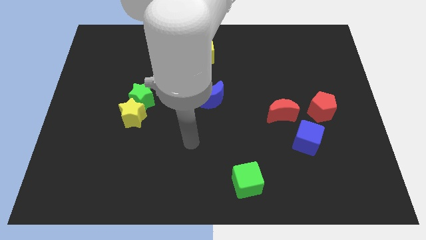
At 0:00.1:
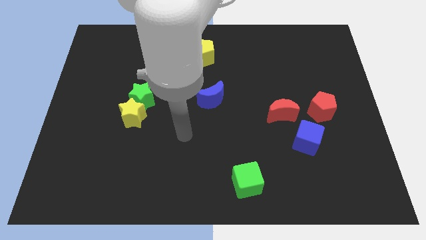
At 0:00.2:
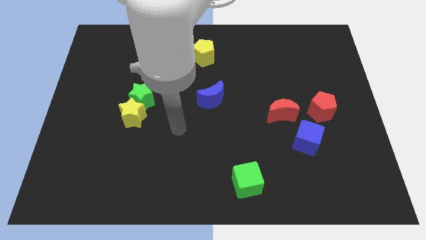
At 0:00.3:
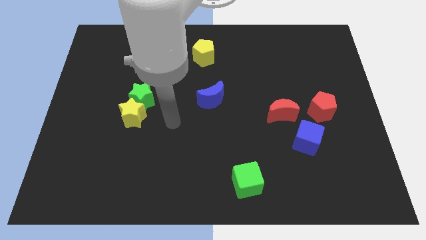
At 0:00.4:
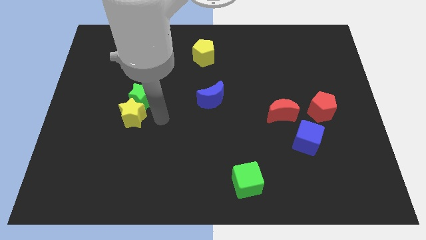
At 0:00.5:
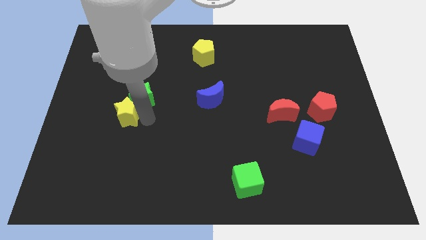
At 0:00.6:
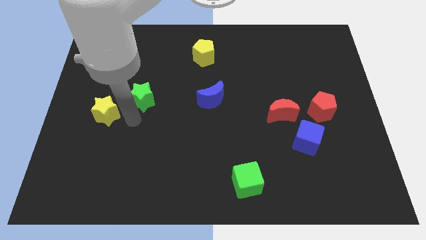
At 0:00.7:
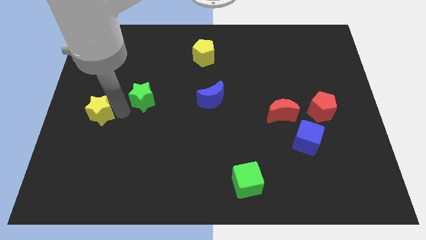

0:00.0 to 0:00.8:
separate the green star from the yellow star

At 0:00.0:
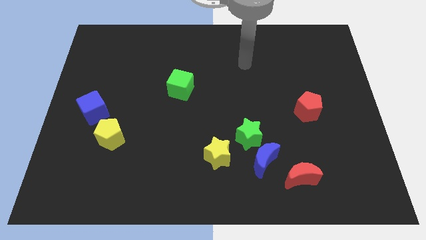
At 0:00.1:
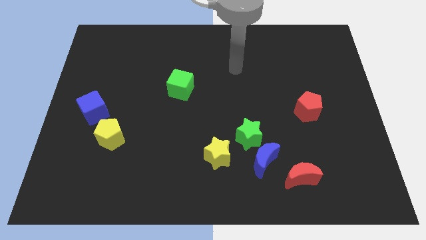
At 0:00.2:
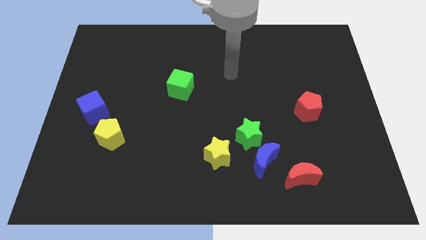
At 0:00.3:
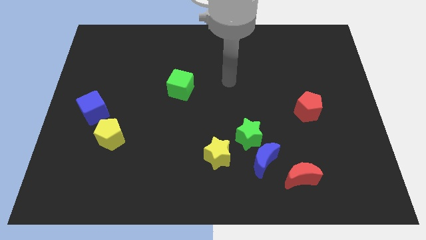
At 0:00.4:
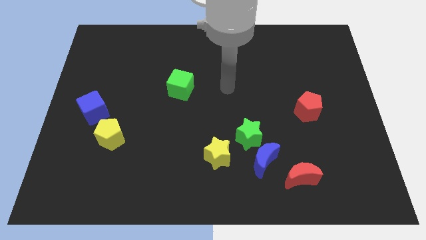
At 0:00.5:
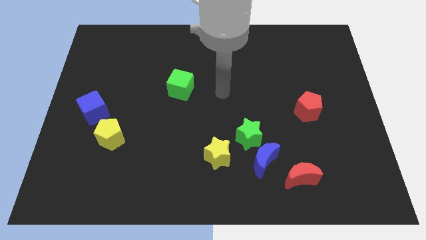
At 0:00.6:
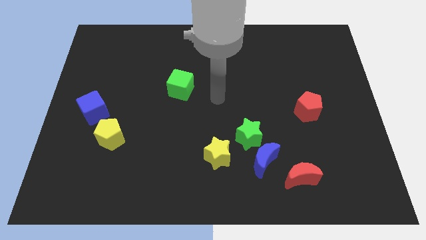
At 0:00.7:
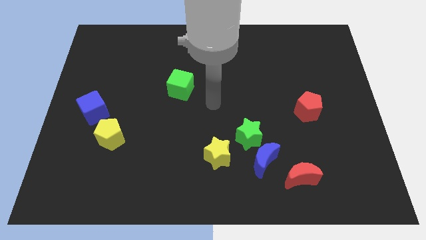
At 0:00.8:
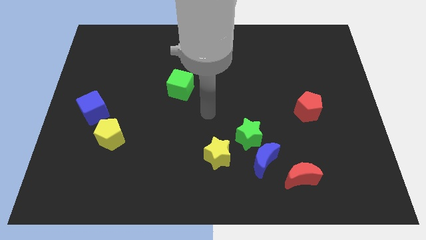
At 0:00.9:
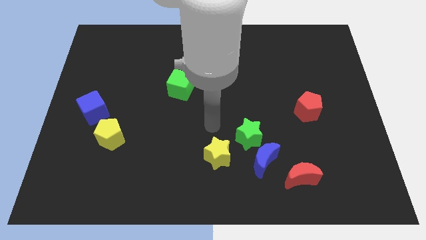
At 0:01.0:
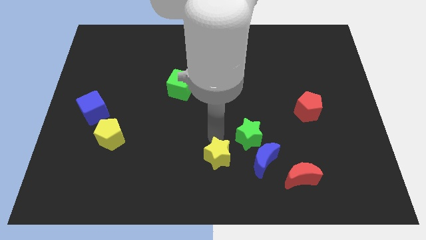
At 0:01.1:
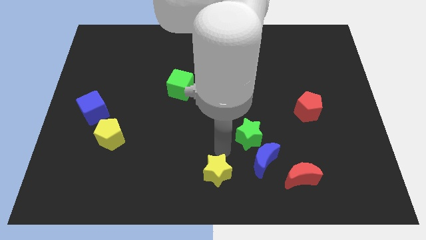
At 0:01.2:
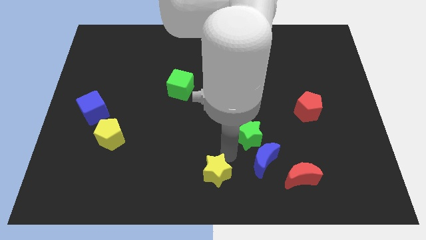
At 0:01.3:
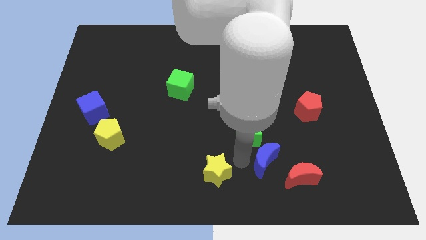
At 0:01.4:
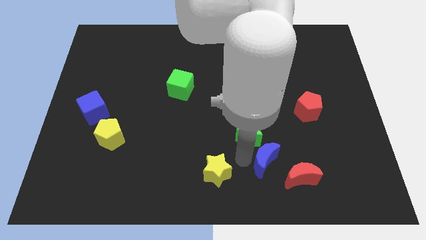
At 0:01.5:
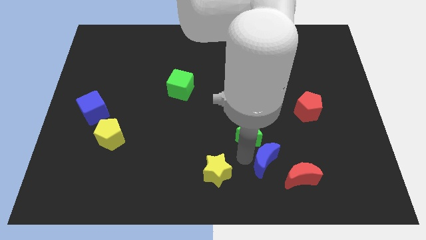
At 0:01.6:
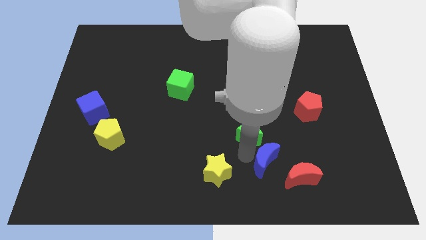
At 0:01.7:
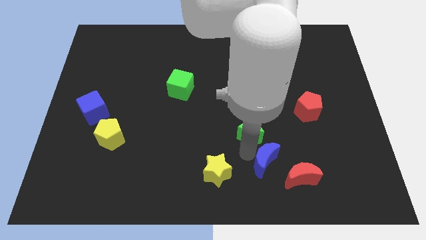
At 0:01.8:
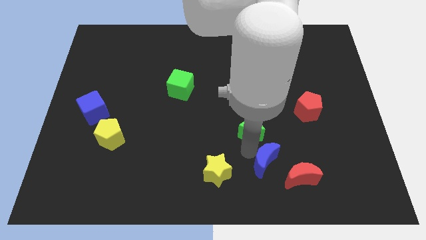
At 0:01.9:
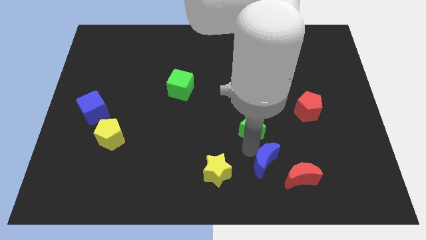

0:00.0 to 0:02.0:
move the green star away from the blue moon and yellow star

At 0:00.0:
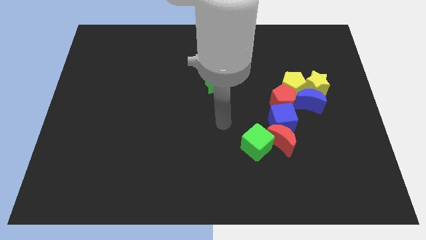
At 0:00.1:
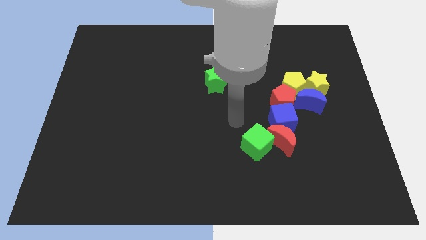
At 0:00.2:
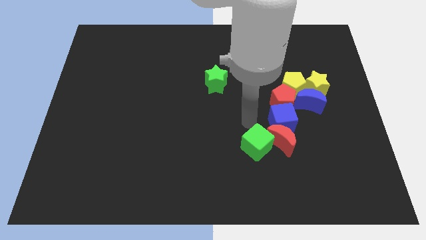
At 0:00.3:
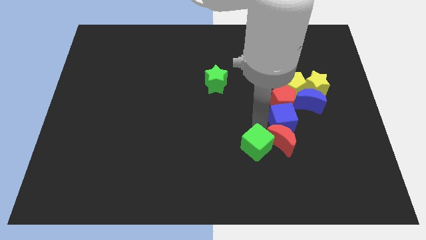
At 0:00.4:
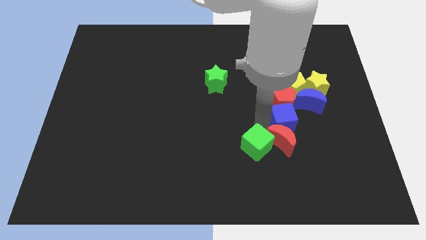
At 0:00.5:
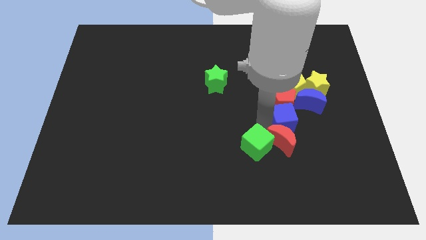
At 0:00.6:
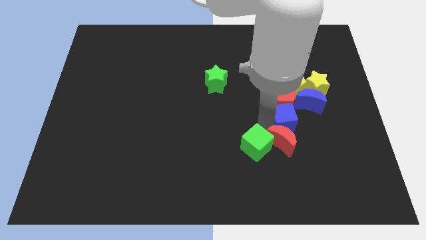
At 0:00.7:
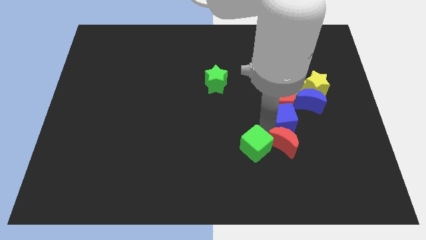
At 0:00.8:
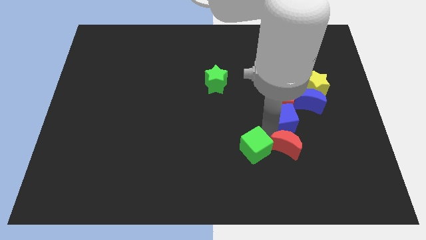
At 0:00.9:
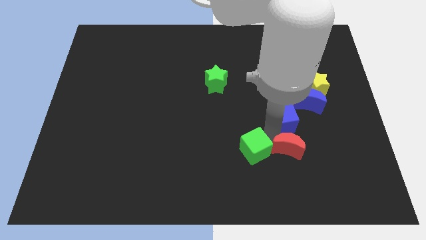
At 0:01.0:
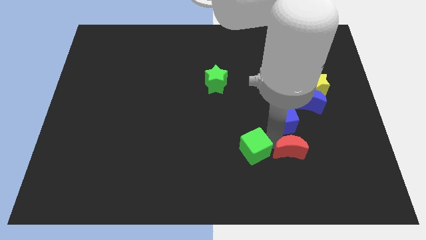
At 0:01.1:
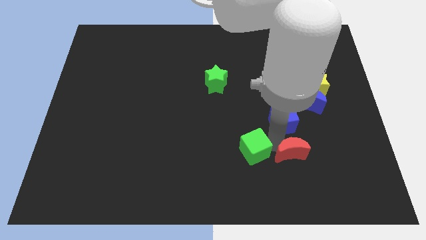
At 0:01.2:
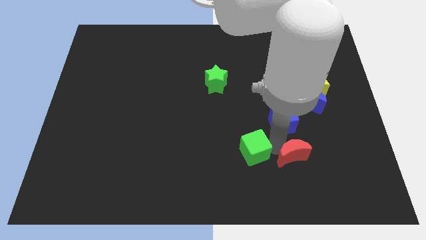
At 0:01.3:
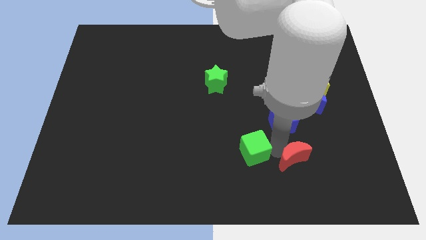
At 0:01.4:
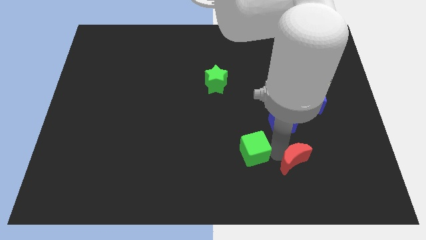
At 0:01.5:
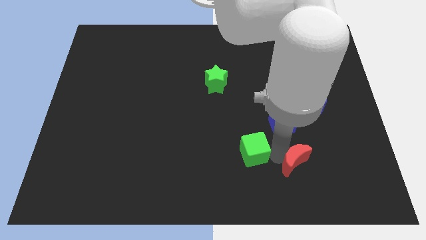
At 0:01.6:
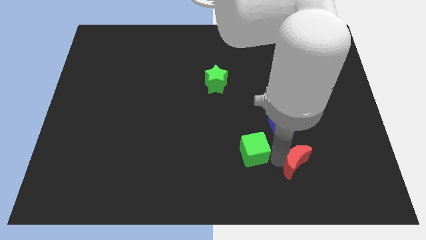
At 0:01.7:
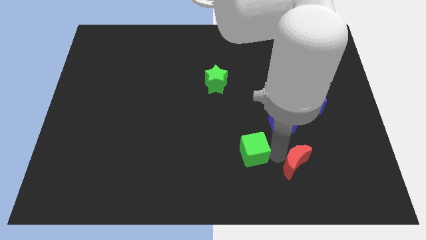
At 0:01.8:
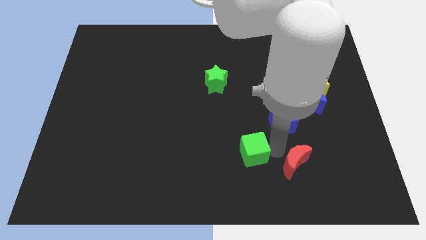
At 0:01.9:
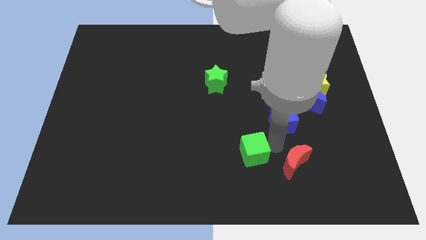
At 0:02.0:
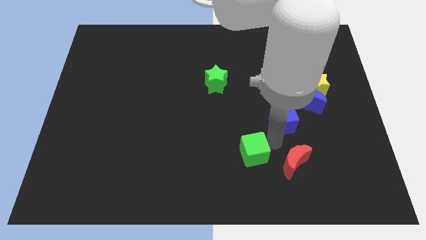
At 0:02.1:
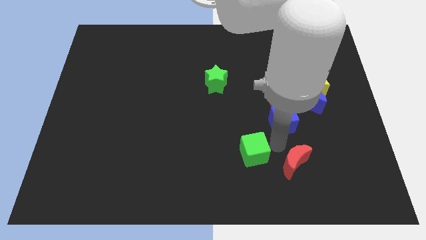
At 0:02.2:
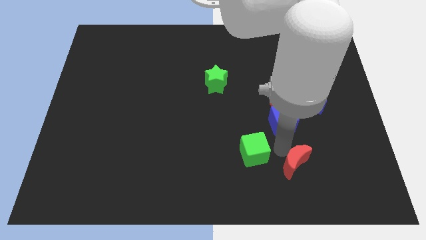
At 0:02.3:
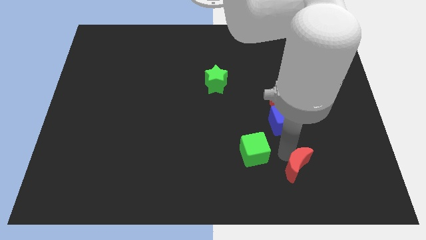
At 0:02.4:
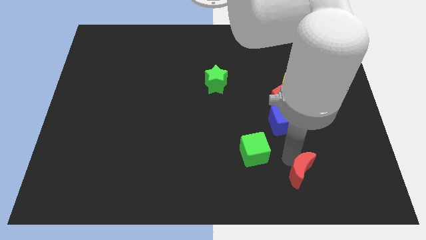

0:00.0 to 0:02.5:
pull the red moon apart from the blue cube and green cube

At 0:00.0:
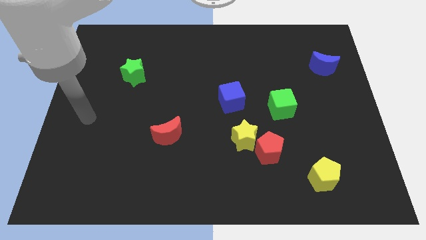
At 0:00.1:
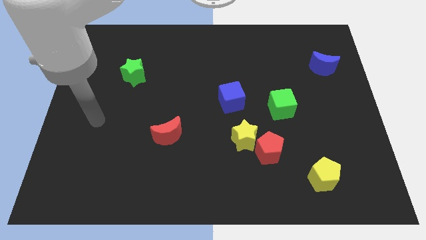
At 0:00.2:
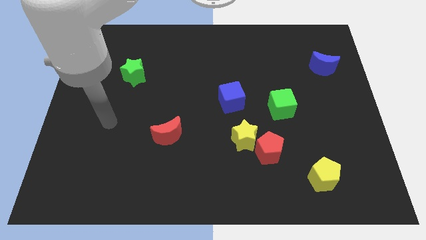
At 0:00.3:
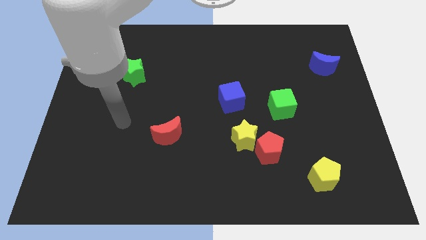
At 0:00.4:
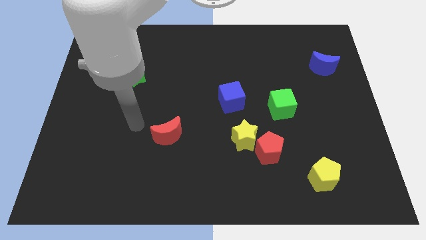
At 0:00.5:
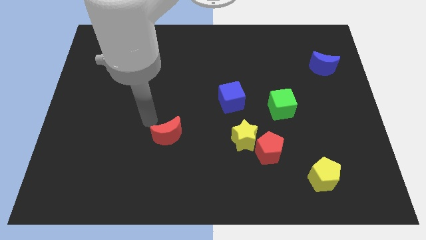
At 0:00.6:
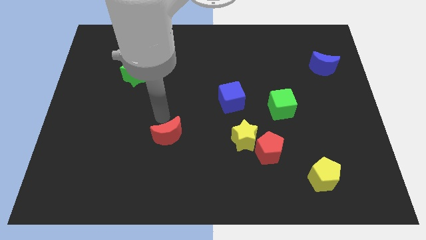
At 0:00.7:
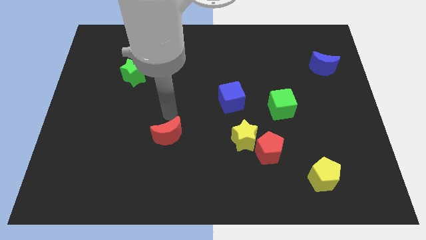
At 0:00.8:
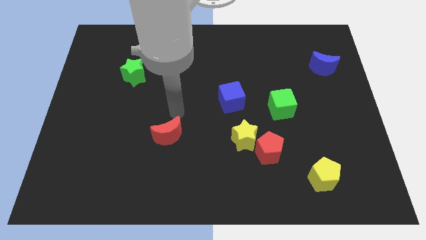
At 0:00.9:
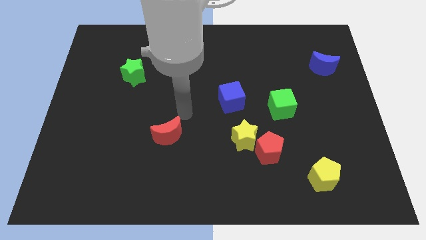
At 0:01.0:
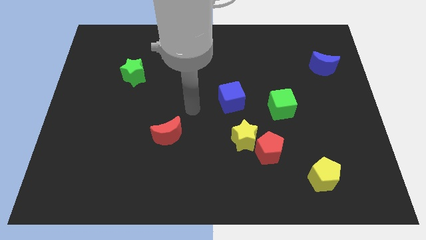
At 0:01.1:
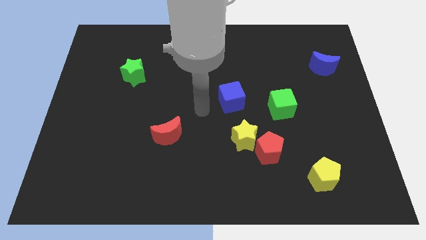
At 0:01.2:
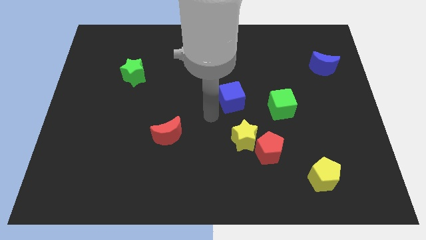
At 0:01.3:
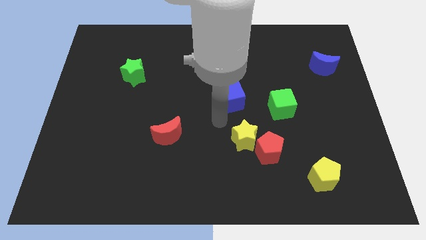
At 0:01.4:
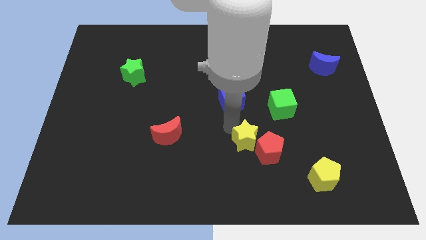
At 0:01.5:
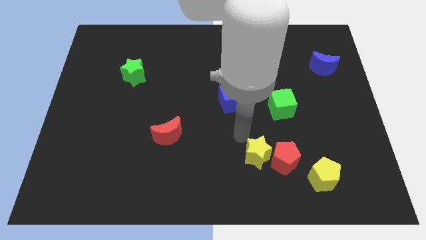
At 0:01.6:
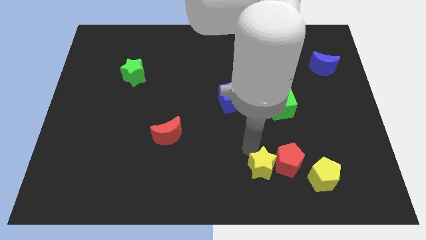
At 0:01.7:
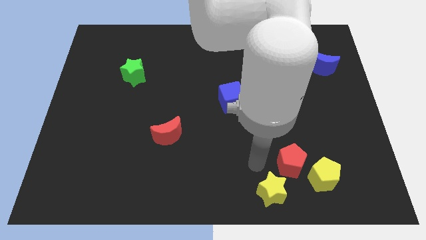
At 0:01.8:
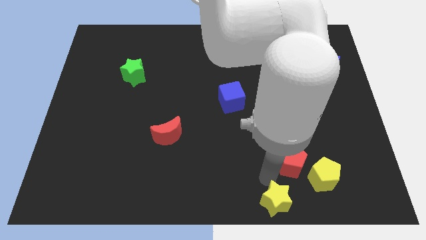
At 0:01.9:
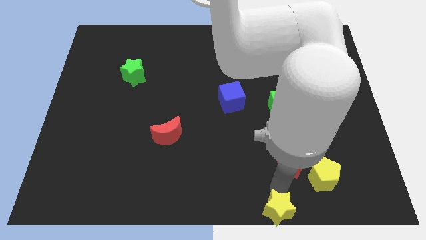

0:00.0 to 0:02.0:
move the red pentagon away from the yellow star

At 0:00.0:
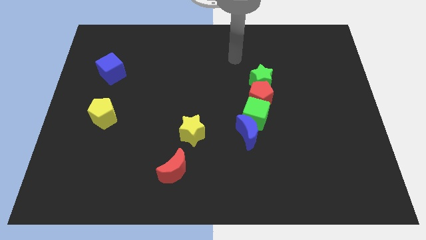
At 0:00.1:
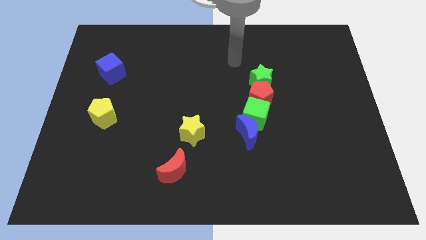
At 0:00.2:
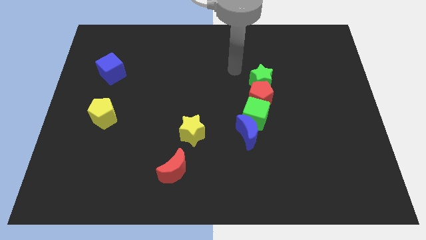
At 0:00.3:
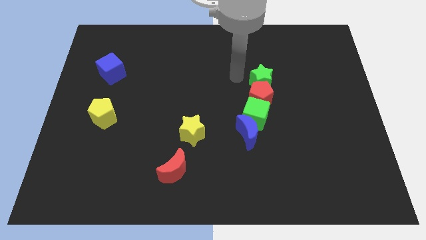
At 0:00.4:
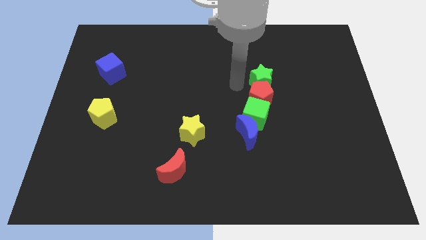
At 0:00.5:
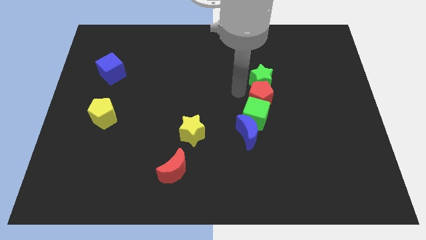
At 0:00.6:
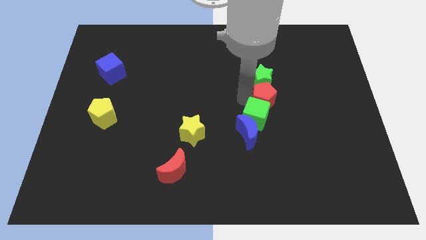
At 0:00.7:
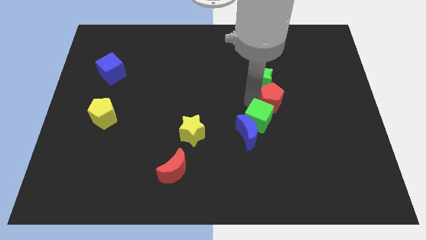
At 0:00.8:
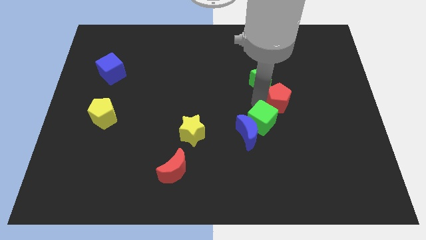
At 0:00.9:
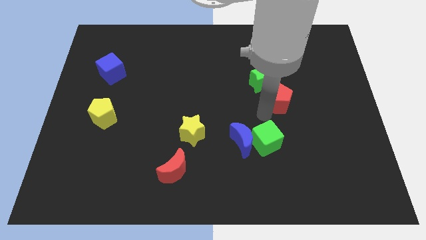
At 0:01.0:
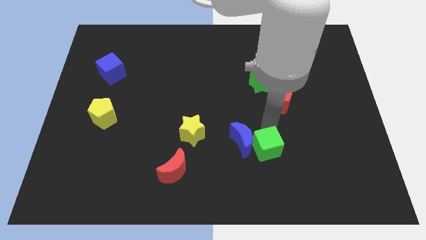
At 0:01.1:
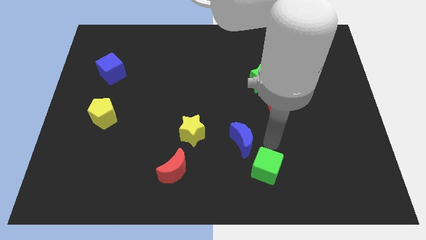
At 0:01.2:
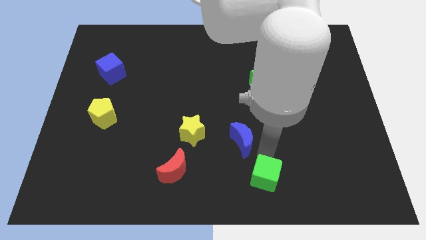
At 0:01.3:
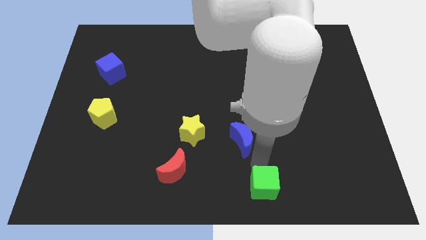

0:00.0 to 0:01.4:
move the blue moon away from the green cube

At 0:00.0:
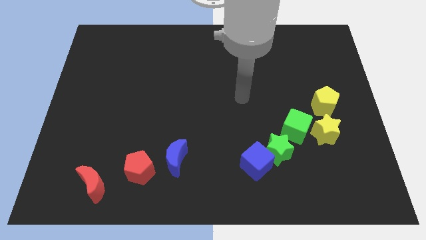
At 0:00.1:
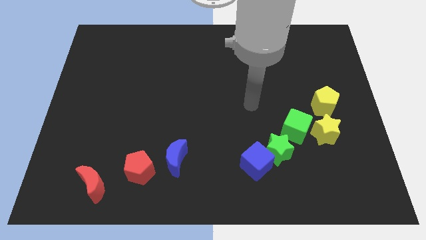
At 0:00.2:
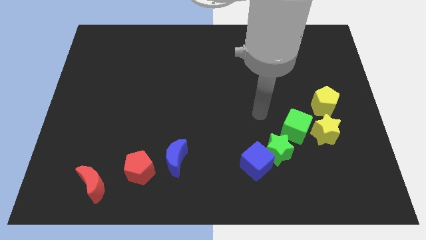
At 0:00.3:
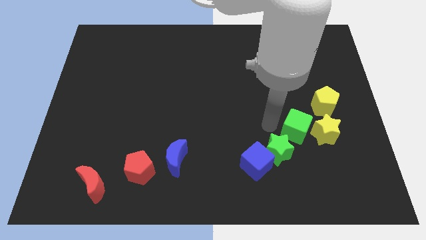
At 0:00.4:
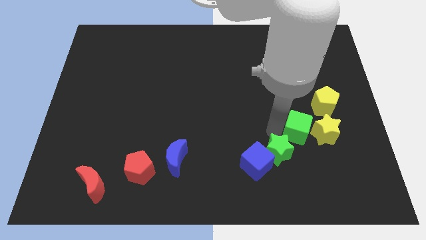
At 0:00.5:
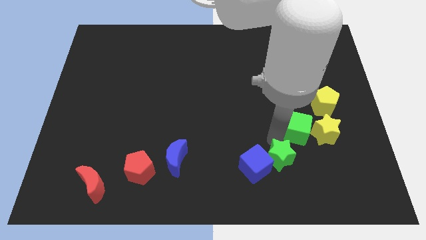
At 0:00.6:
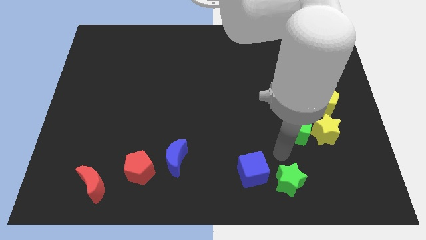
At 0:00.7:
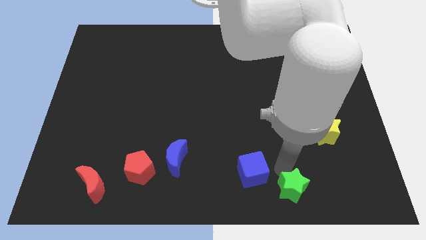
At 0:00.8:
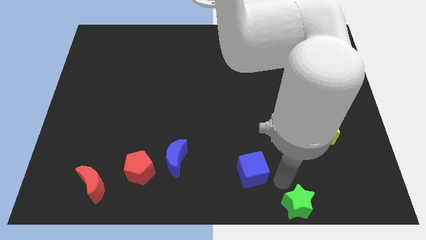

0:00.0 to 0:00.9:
pull the blue cube apart from the green star
